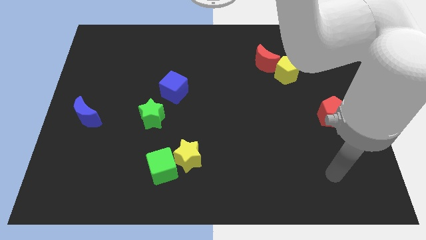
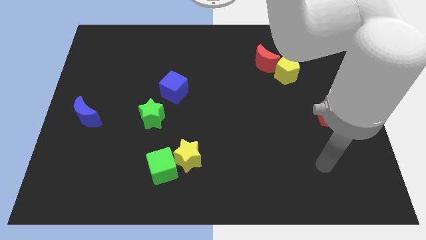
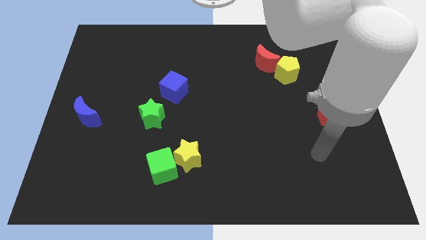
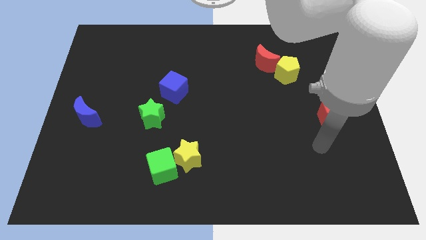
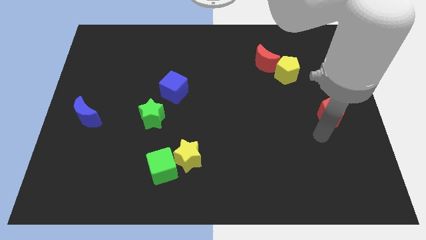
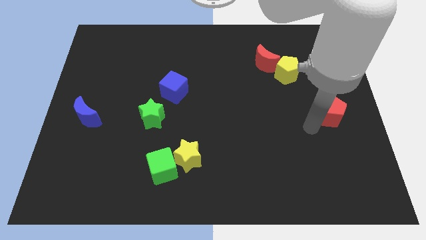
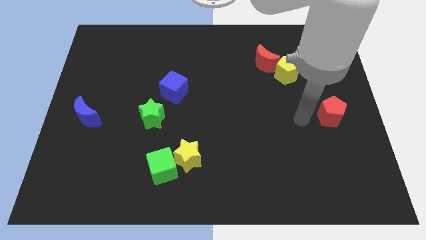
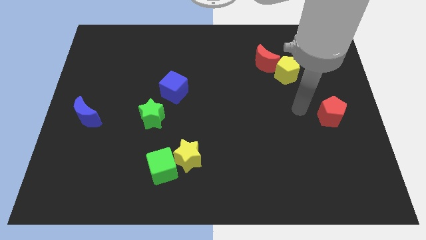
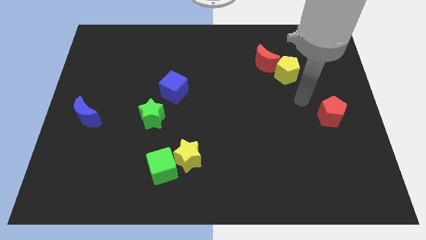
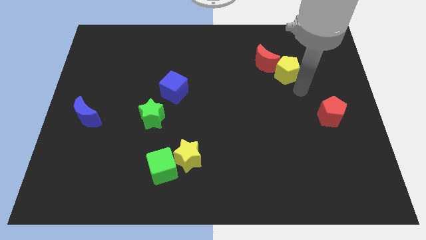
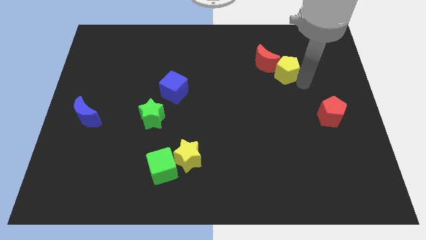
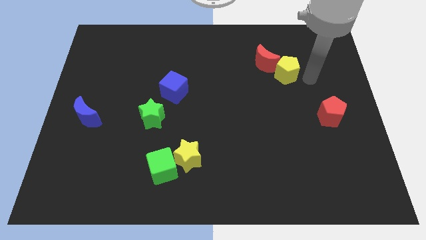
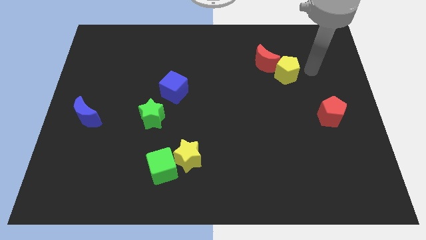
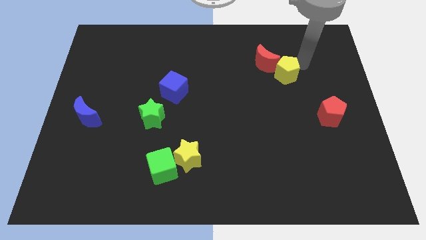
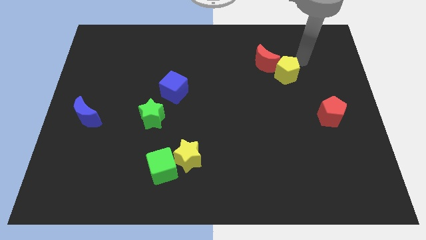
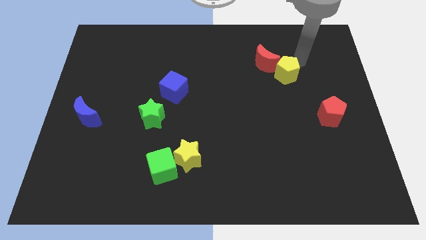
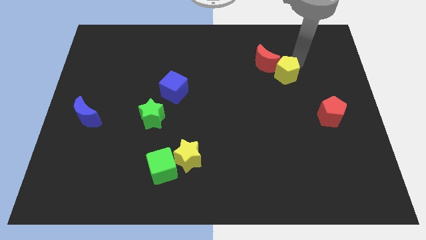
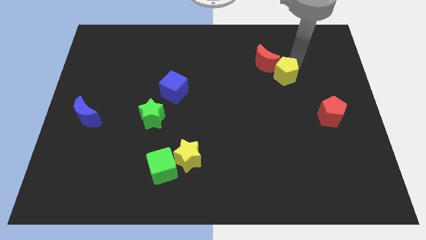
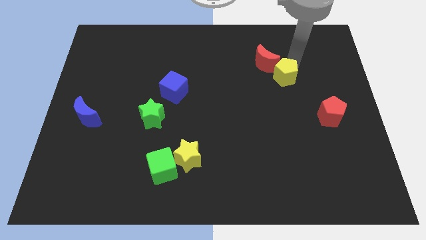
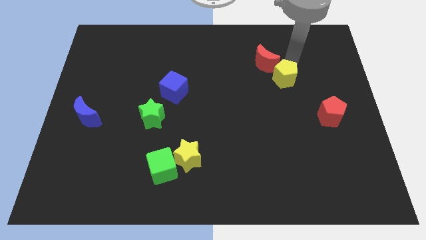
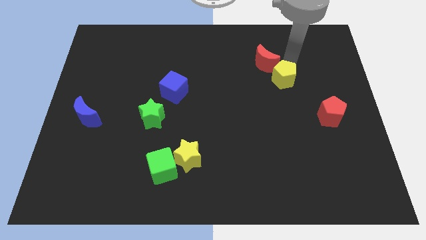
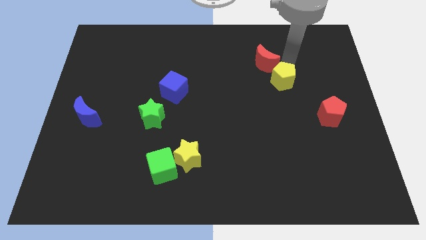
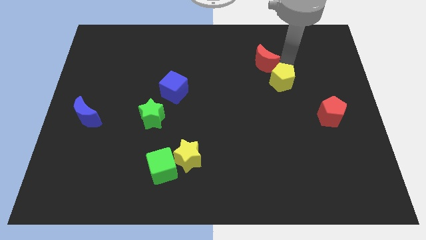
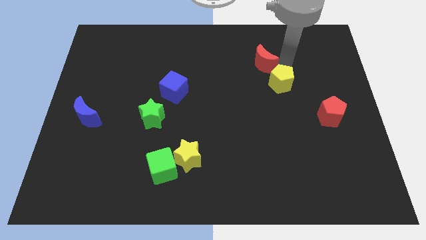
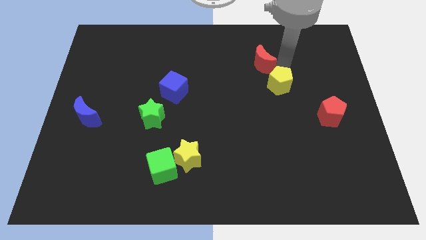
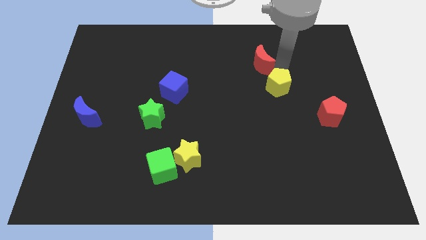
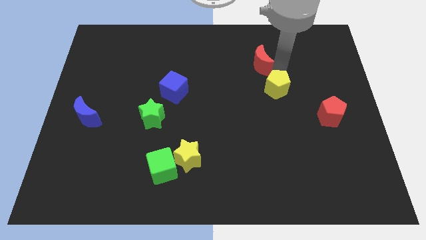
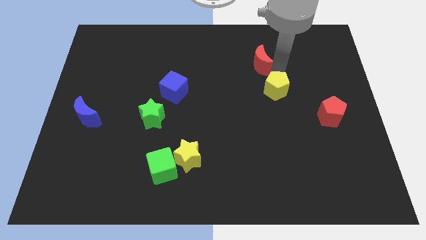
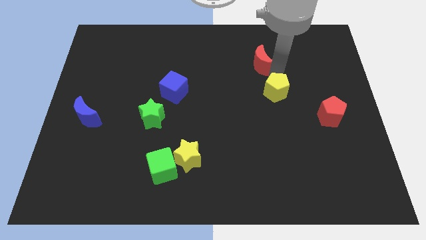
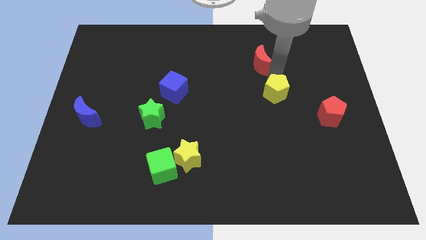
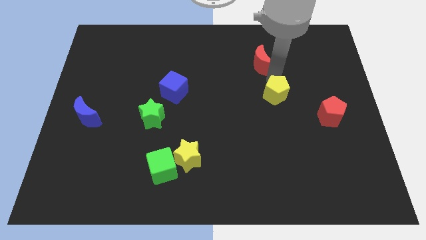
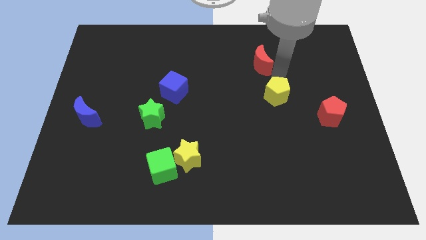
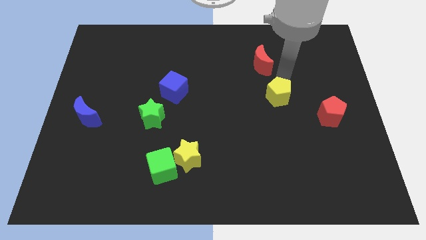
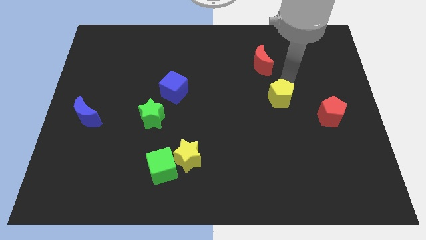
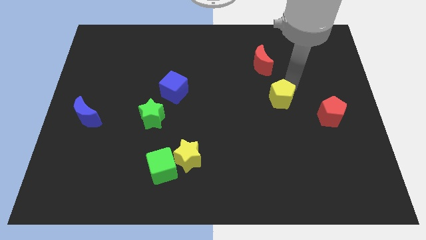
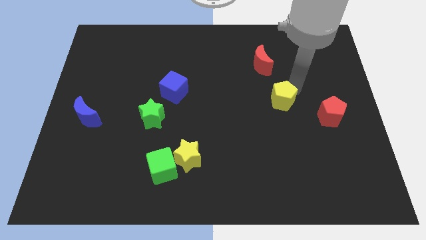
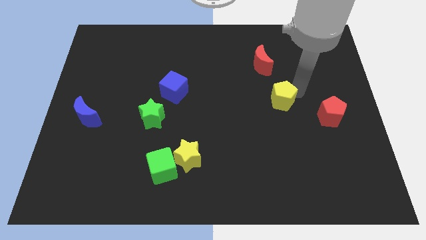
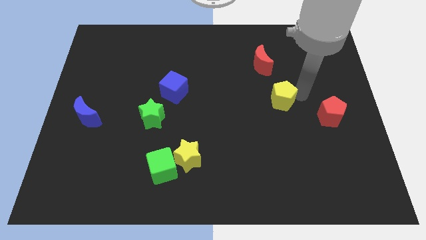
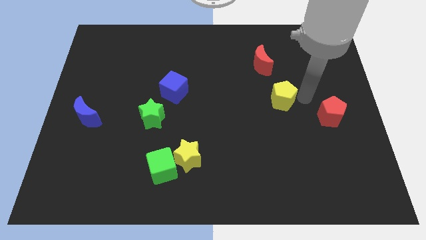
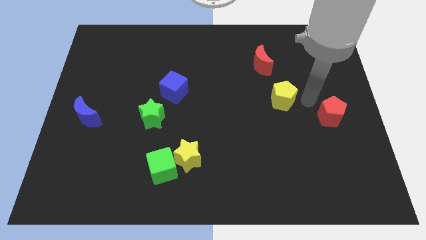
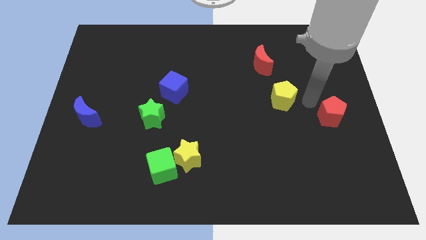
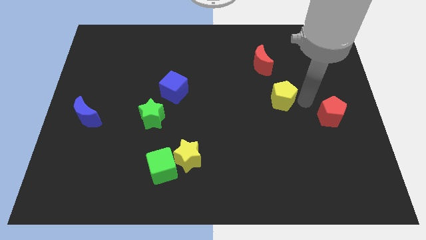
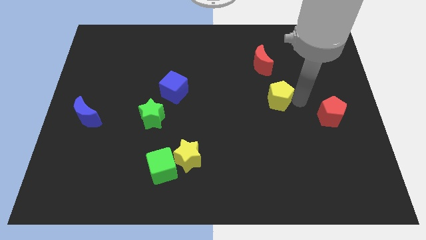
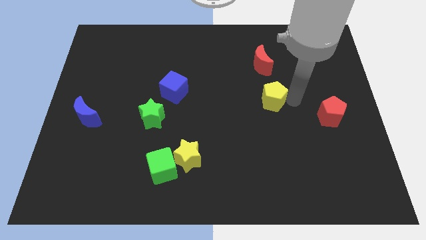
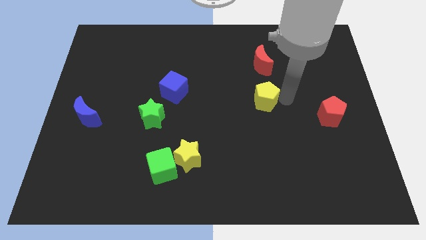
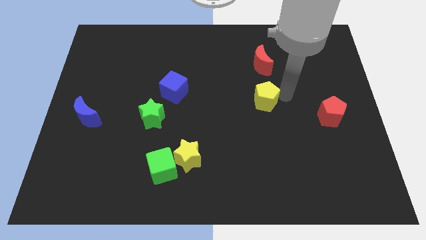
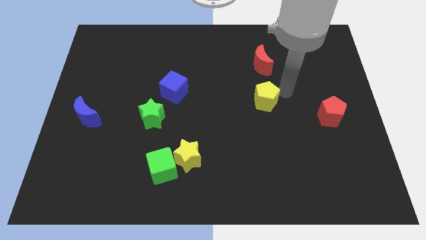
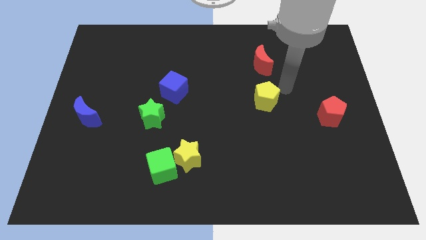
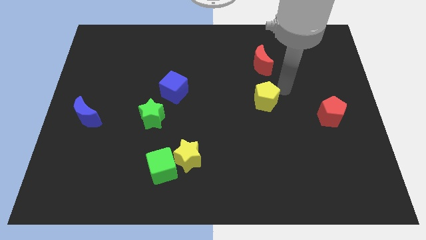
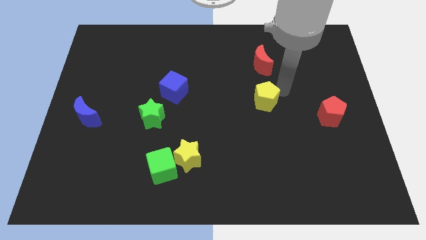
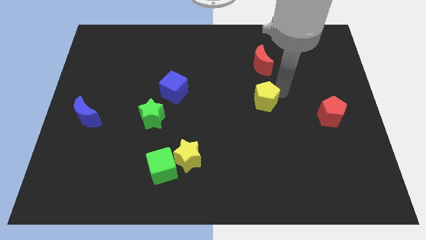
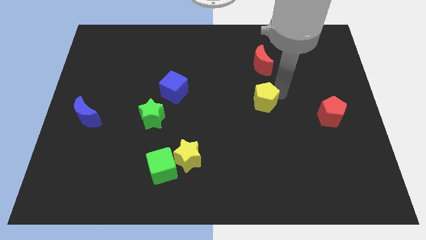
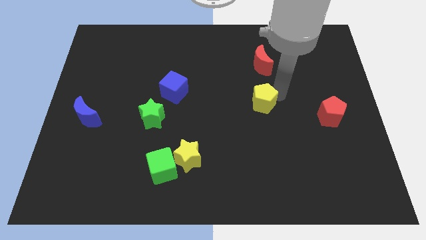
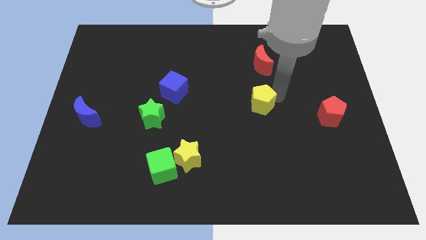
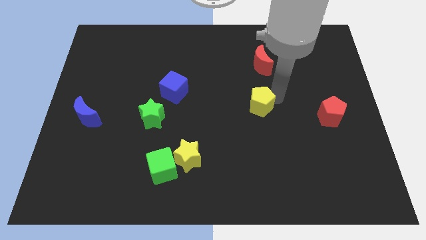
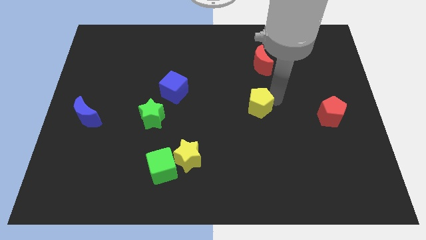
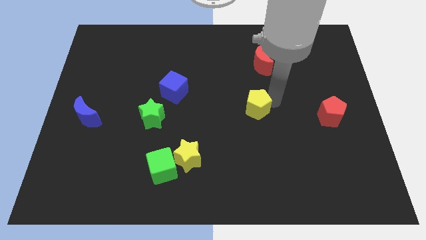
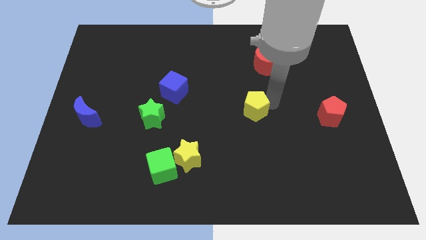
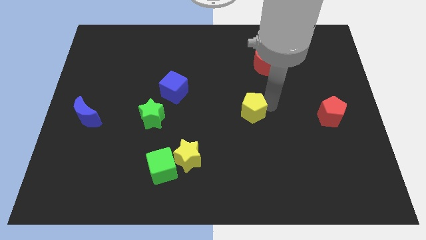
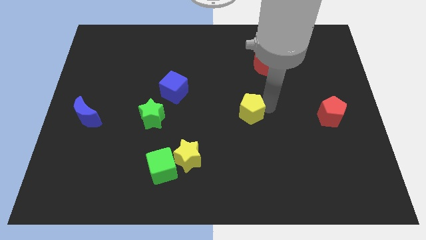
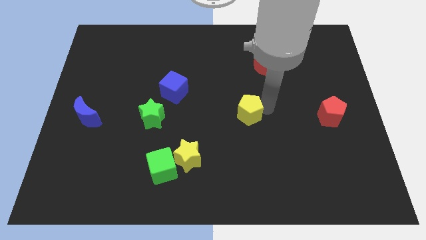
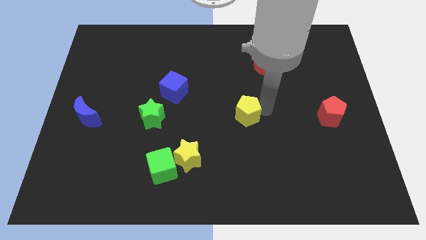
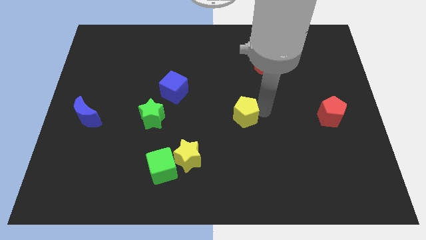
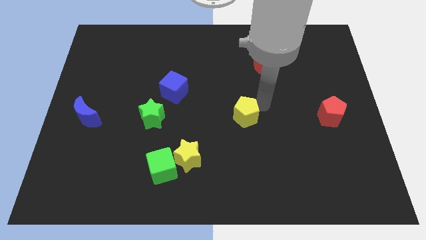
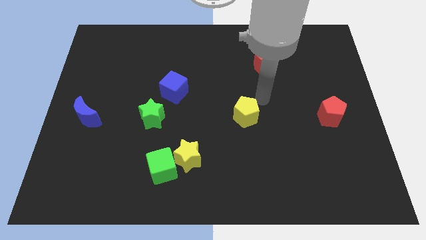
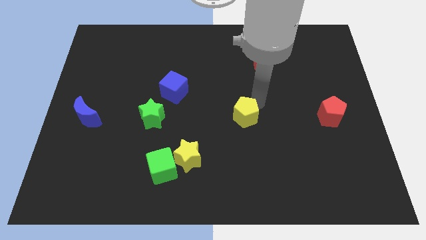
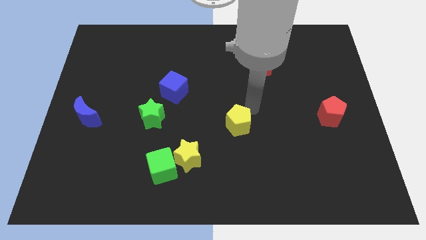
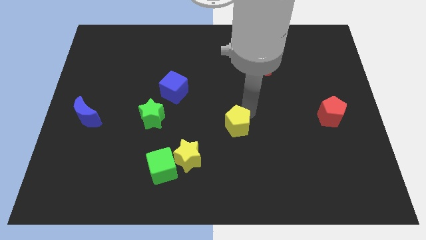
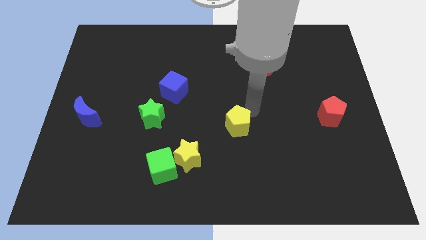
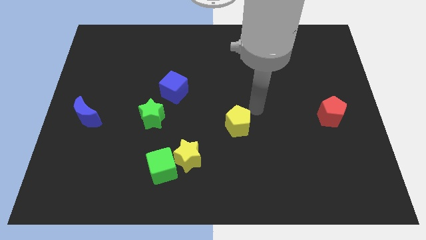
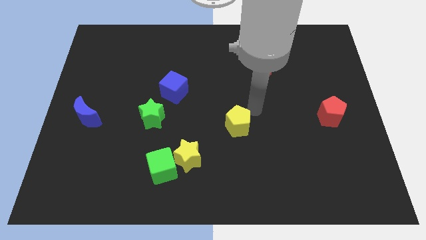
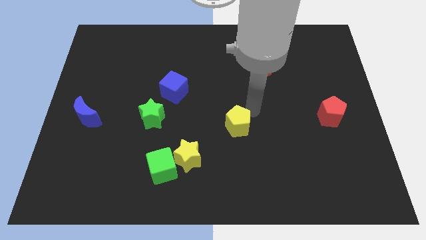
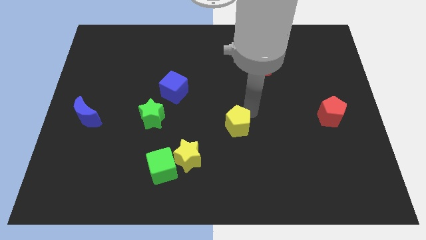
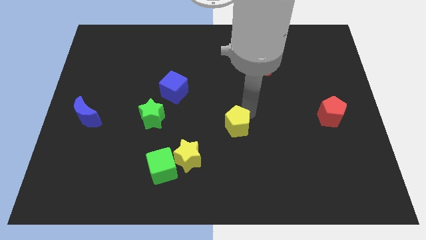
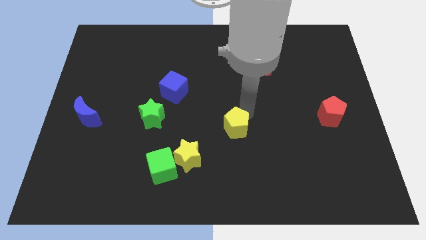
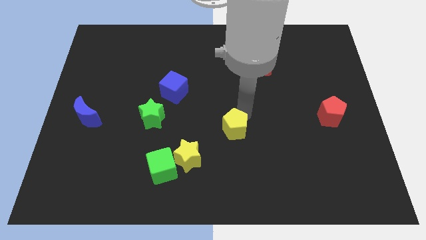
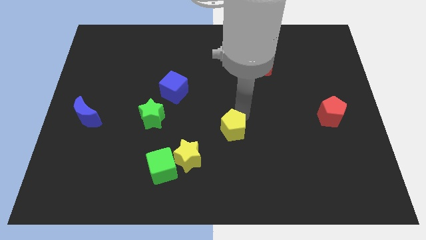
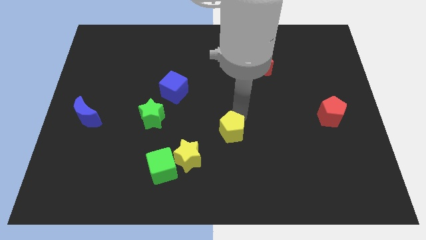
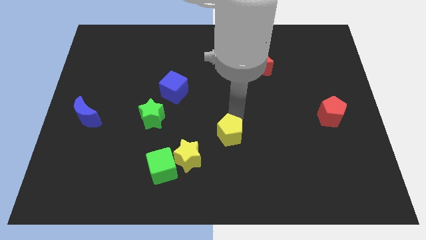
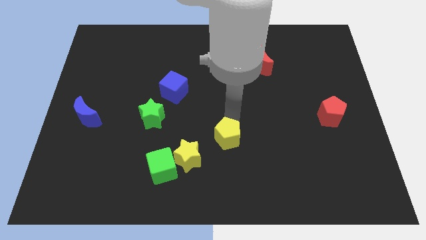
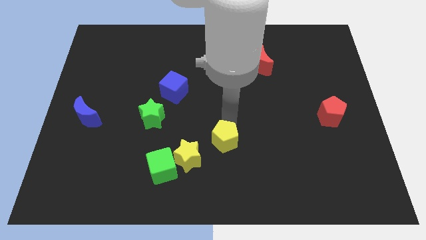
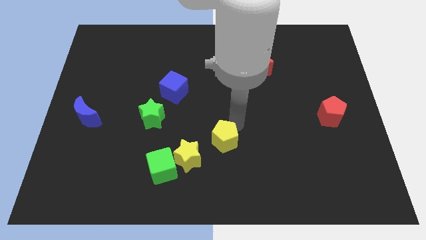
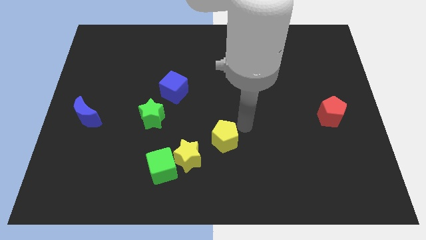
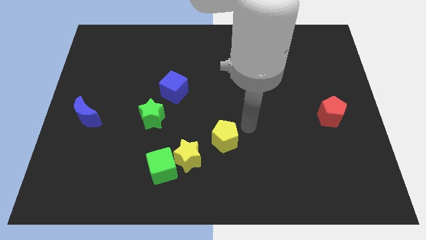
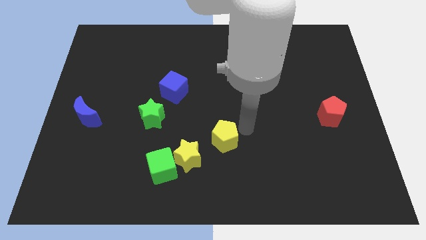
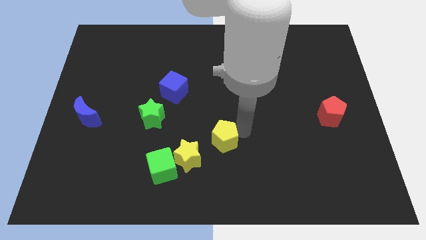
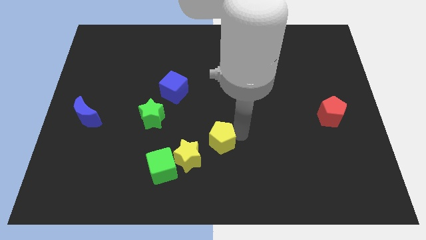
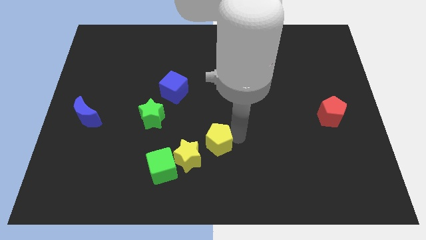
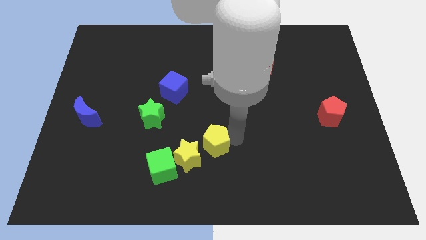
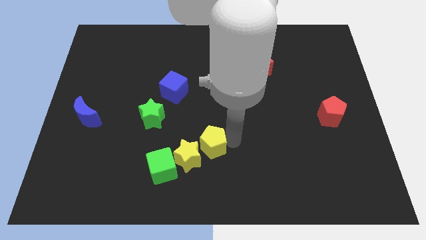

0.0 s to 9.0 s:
push the yellow pentagon close to the yellow star
